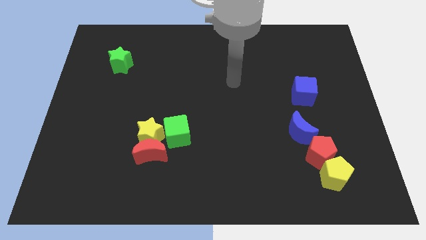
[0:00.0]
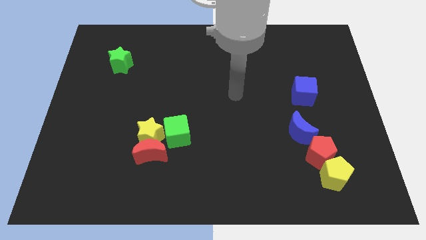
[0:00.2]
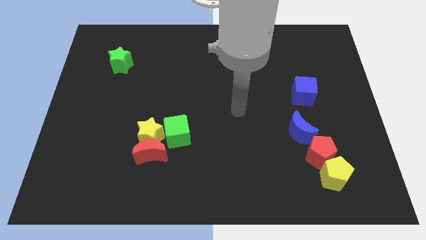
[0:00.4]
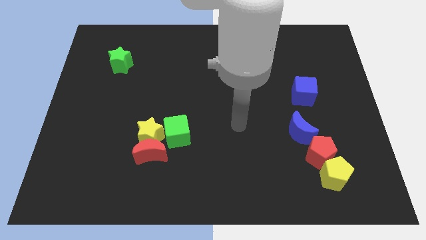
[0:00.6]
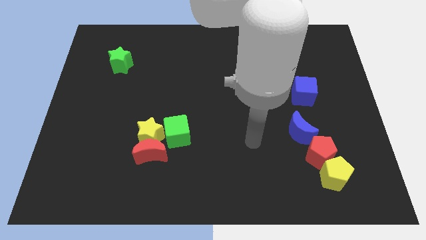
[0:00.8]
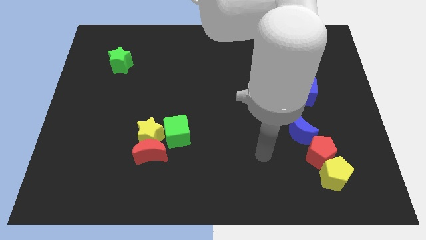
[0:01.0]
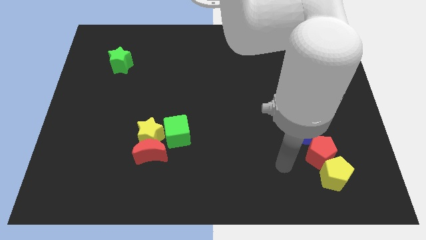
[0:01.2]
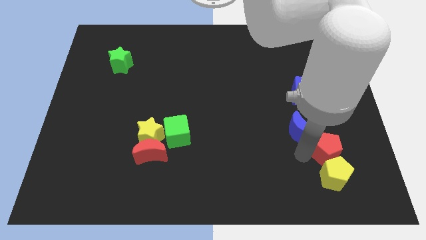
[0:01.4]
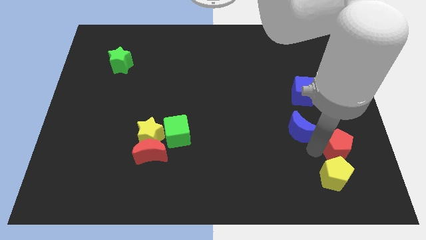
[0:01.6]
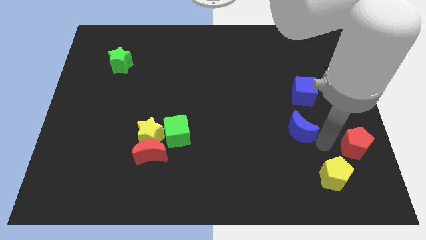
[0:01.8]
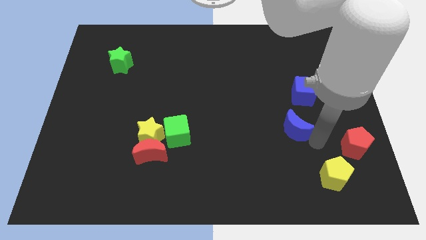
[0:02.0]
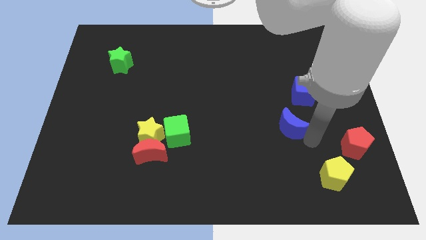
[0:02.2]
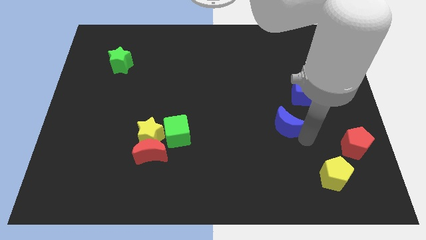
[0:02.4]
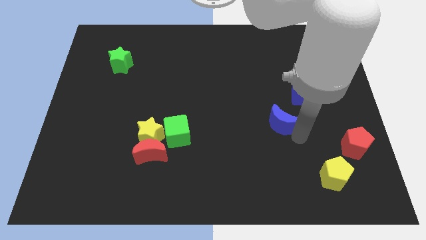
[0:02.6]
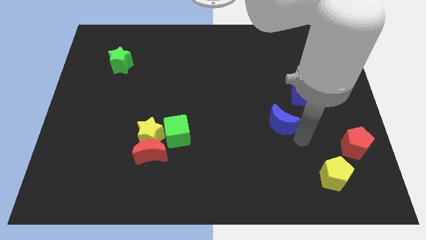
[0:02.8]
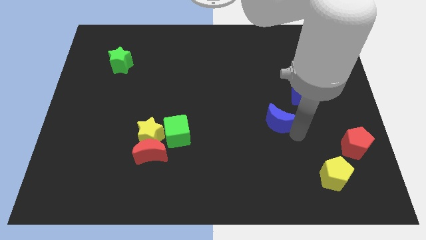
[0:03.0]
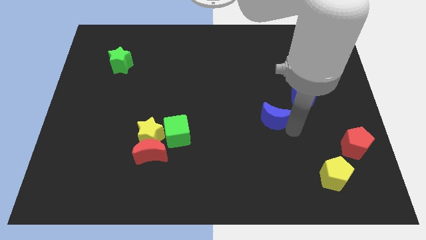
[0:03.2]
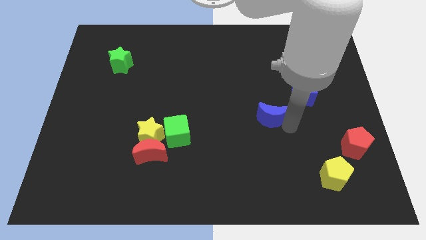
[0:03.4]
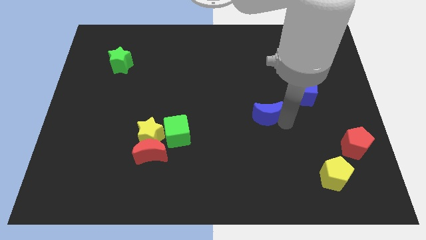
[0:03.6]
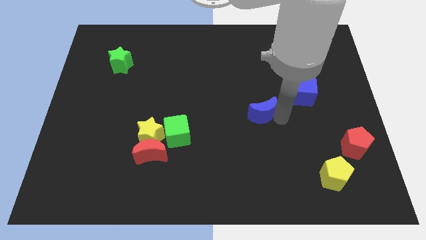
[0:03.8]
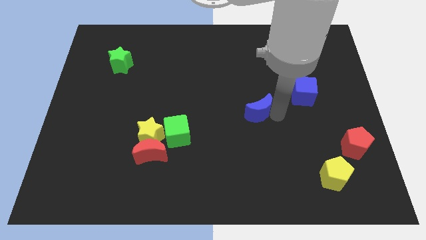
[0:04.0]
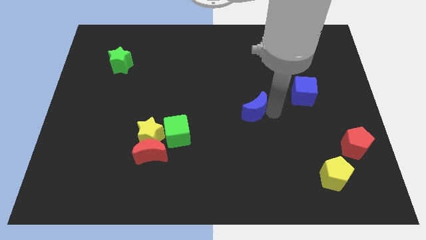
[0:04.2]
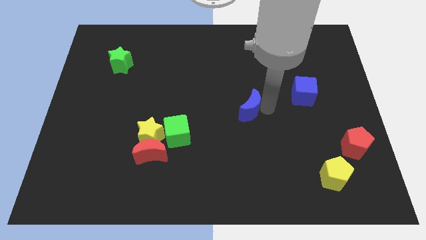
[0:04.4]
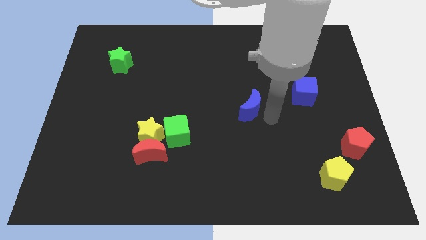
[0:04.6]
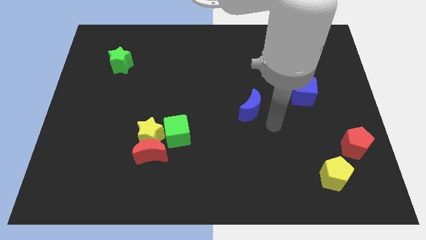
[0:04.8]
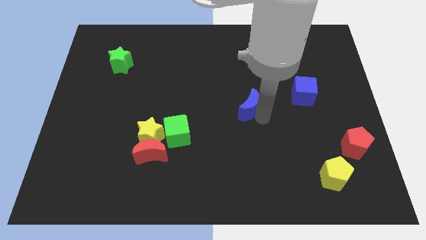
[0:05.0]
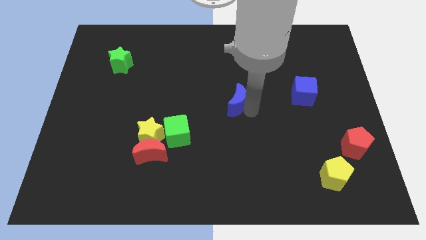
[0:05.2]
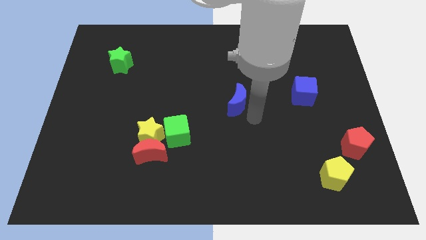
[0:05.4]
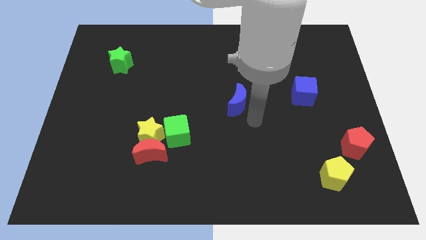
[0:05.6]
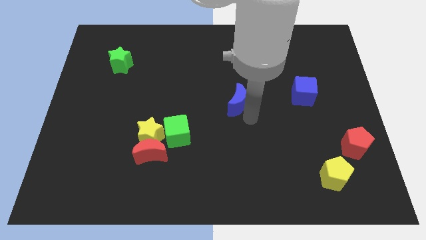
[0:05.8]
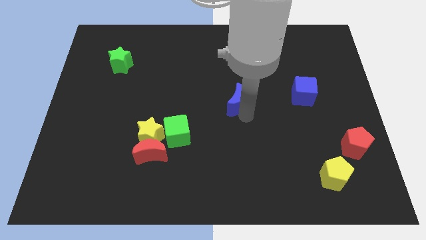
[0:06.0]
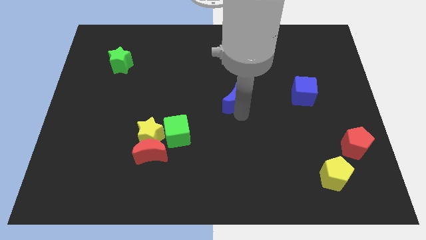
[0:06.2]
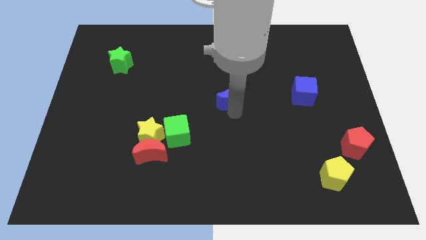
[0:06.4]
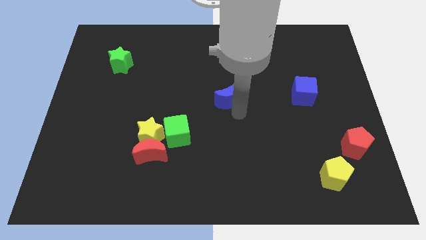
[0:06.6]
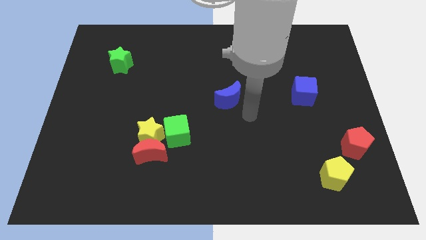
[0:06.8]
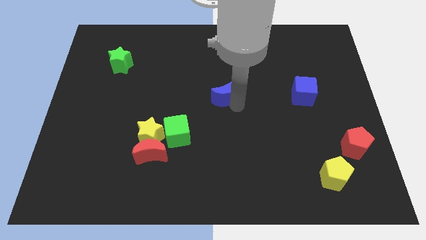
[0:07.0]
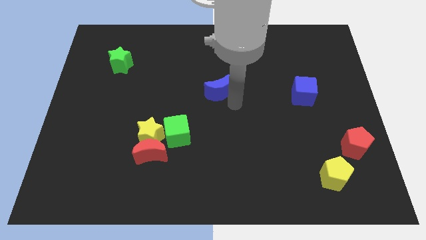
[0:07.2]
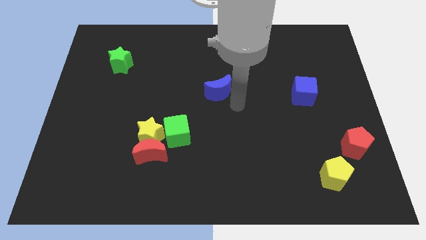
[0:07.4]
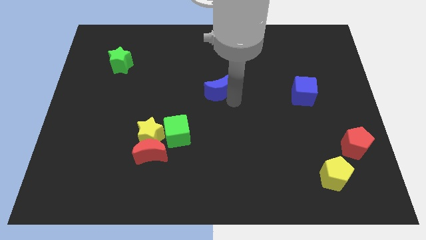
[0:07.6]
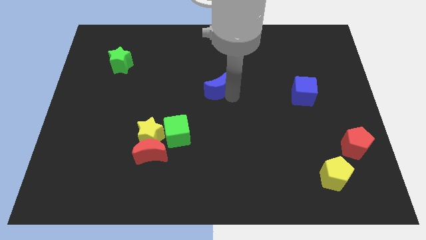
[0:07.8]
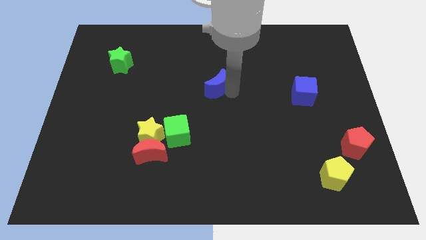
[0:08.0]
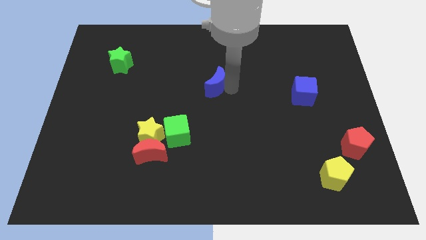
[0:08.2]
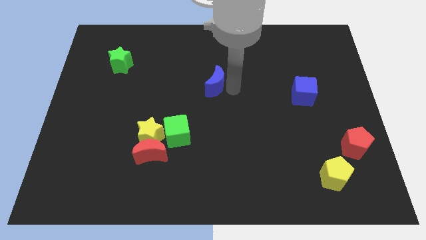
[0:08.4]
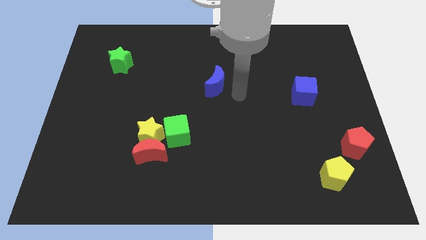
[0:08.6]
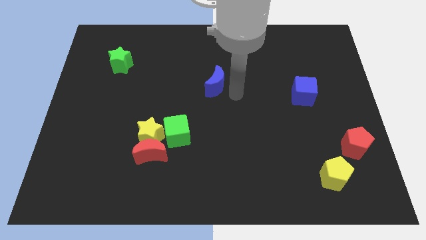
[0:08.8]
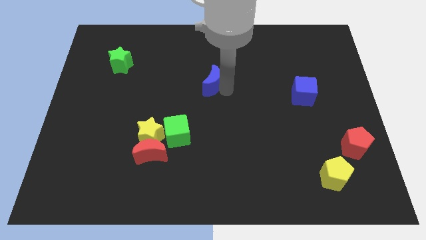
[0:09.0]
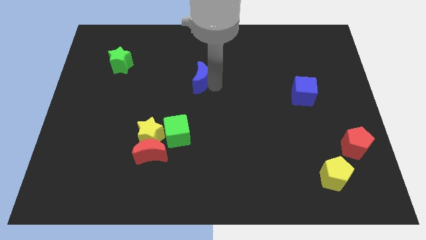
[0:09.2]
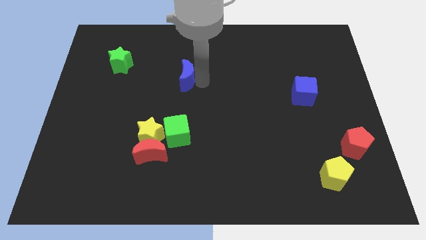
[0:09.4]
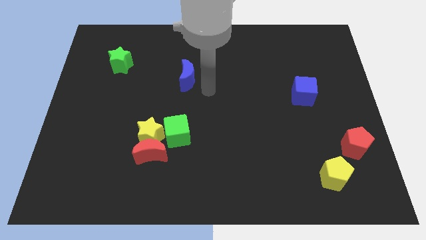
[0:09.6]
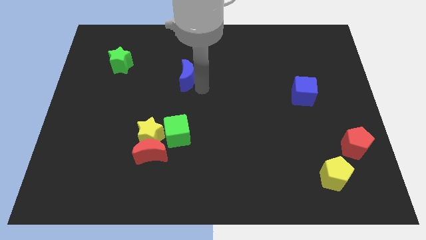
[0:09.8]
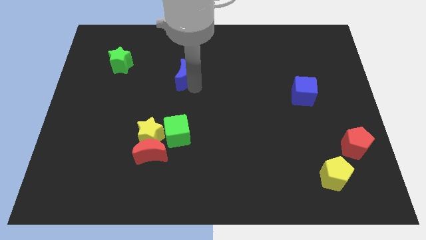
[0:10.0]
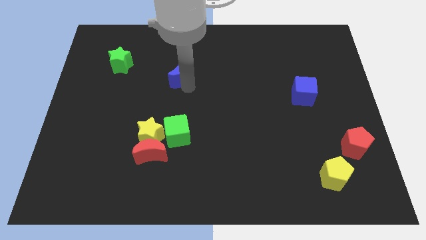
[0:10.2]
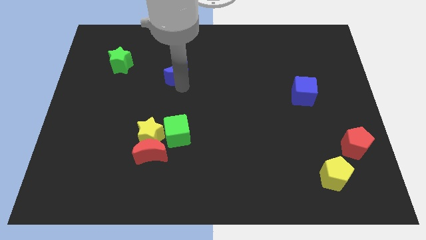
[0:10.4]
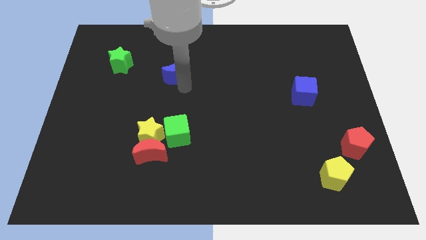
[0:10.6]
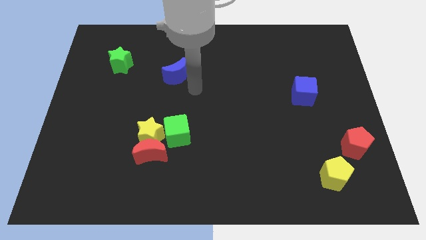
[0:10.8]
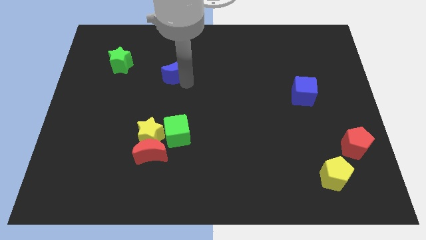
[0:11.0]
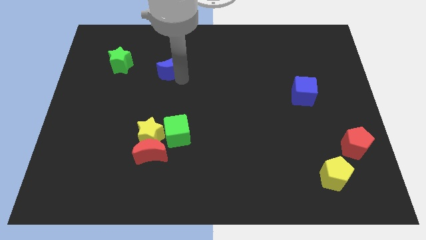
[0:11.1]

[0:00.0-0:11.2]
push the blue moon just right of the green star

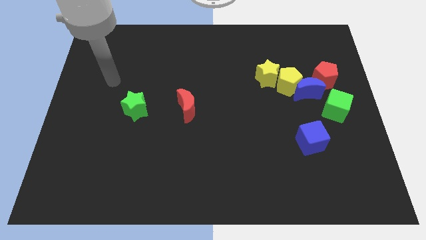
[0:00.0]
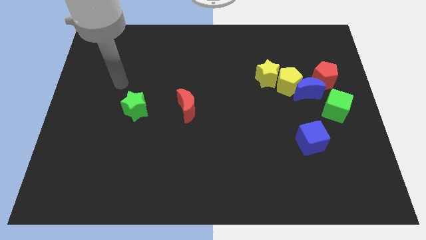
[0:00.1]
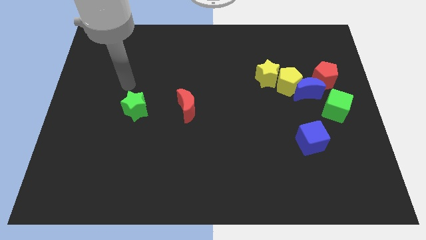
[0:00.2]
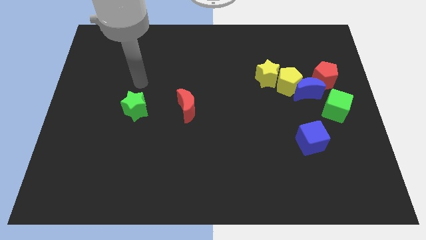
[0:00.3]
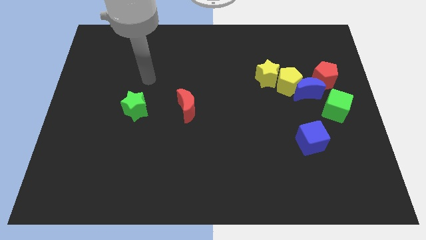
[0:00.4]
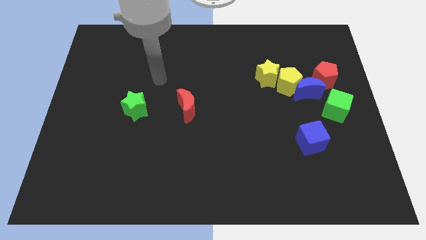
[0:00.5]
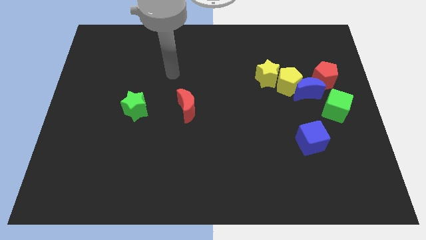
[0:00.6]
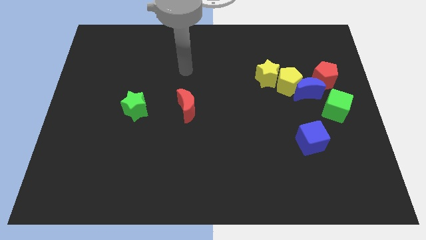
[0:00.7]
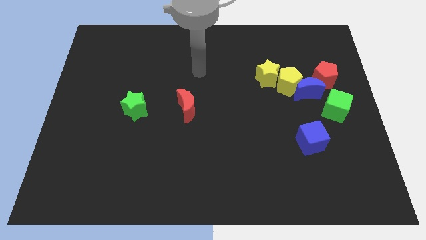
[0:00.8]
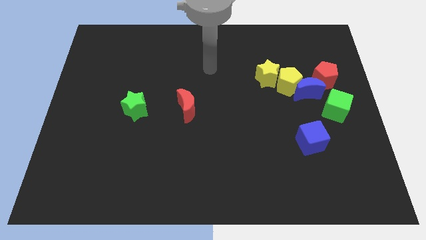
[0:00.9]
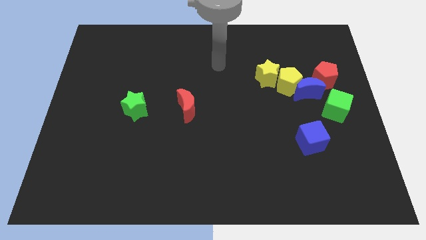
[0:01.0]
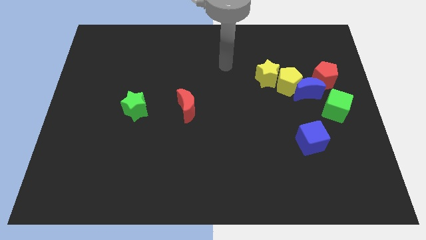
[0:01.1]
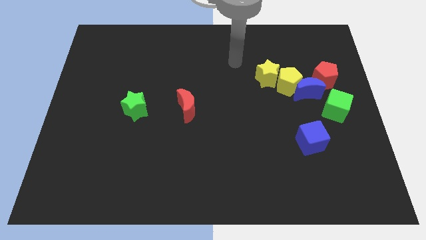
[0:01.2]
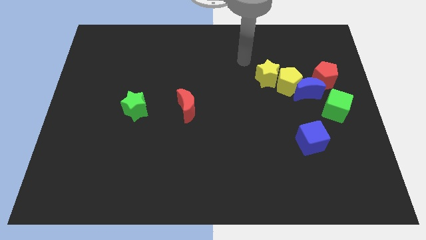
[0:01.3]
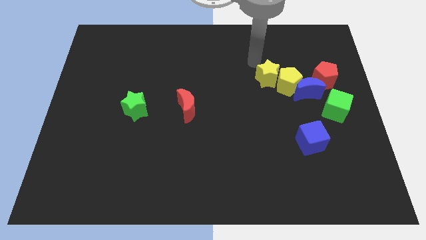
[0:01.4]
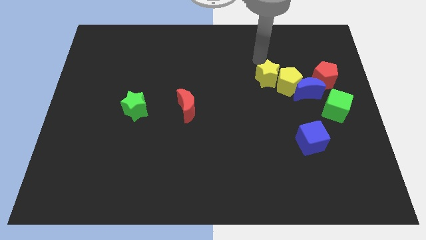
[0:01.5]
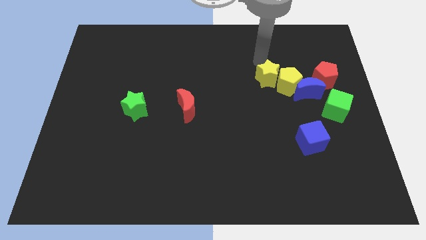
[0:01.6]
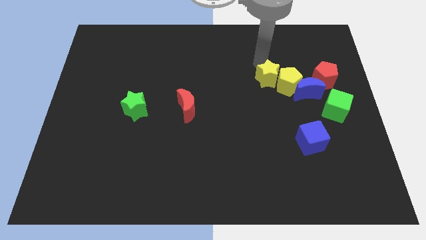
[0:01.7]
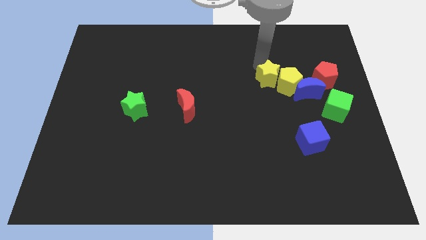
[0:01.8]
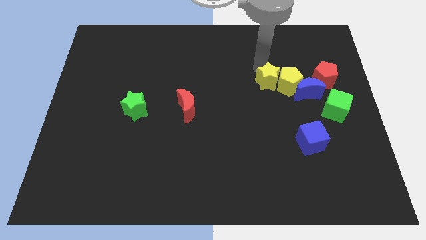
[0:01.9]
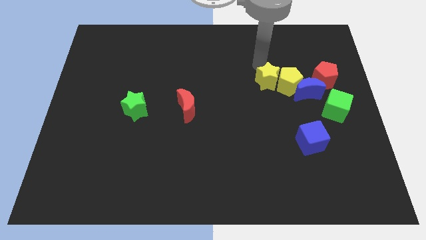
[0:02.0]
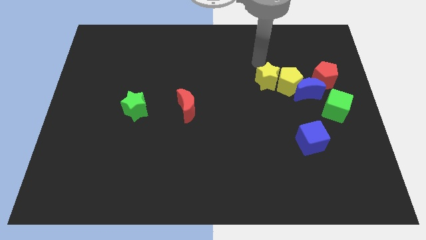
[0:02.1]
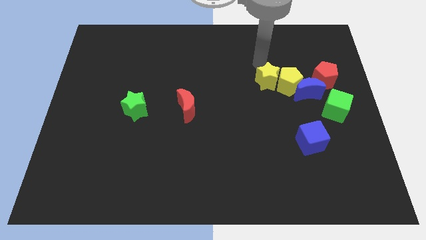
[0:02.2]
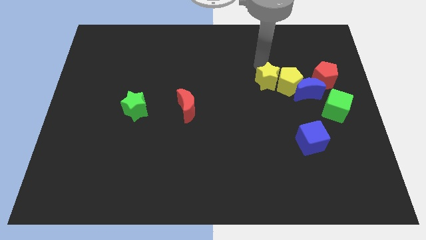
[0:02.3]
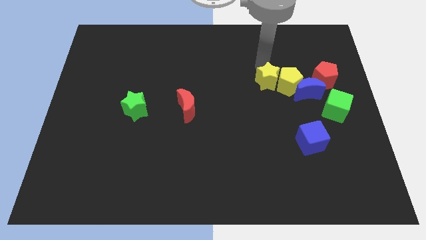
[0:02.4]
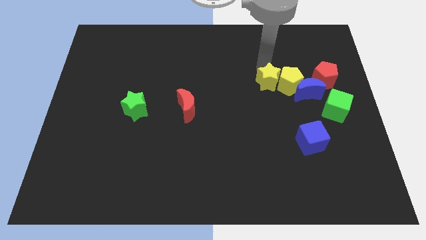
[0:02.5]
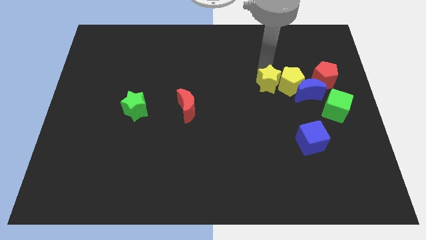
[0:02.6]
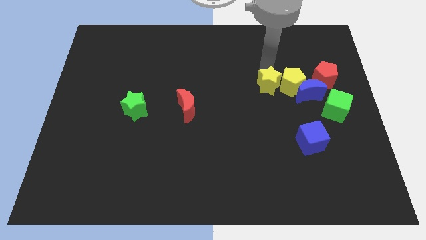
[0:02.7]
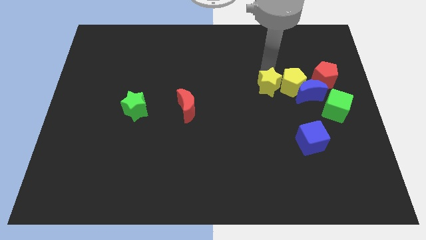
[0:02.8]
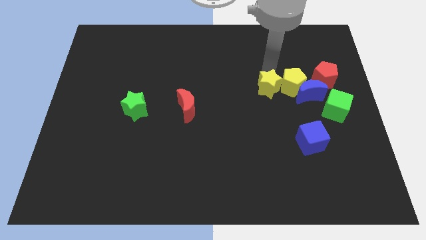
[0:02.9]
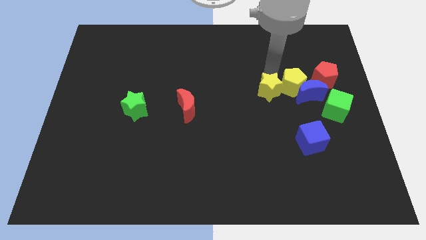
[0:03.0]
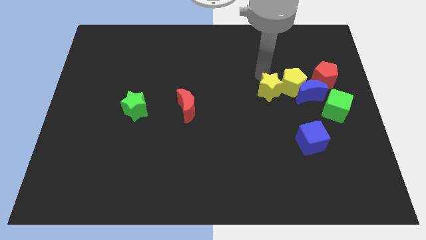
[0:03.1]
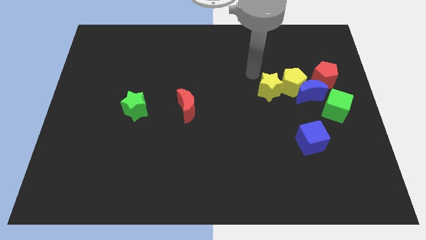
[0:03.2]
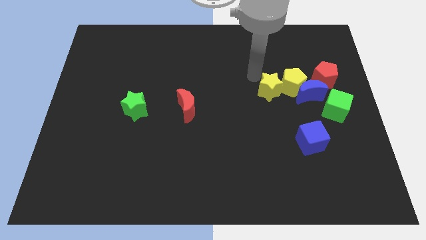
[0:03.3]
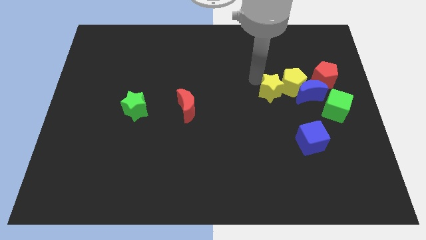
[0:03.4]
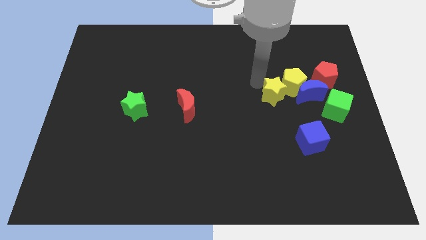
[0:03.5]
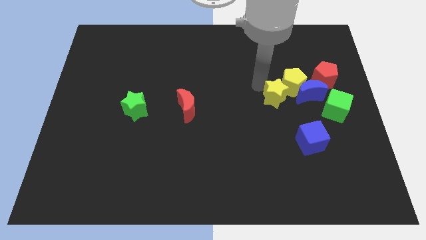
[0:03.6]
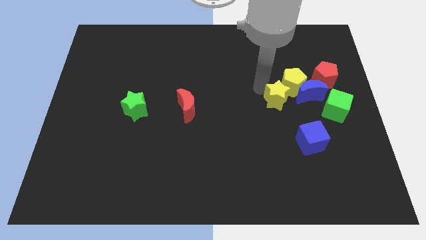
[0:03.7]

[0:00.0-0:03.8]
put the yellow star to the bottom of the yellow pentagon
